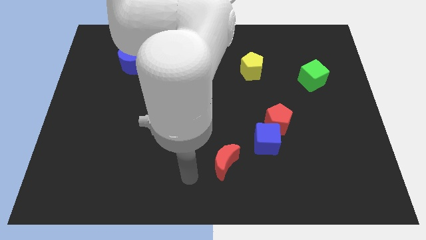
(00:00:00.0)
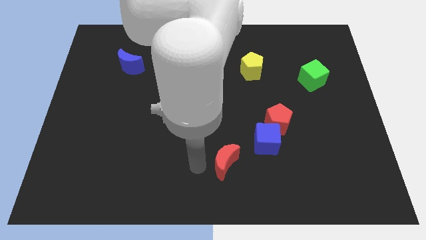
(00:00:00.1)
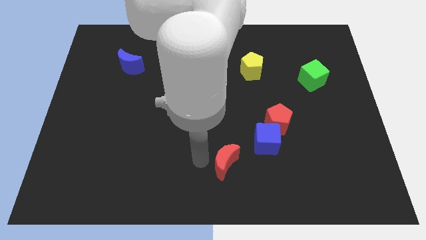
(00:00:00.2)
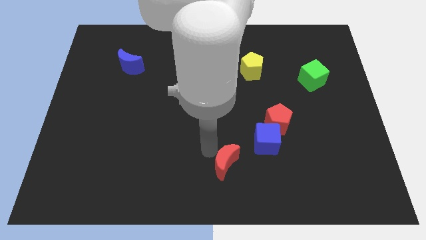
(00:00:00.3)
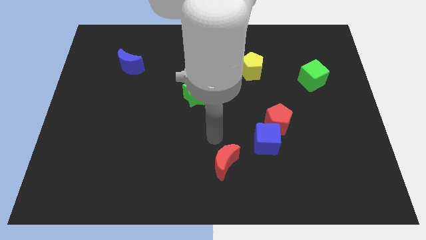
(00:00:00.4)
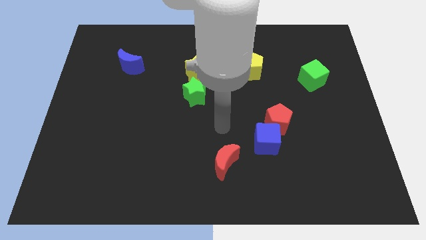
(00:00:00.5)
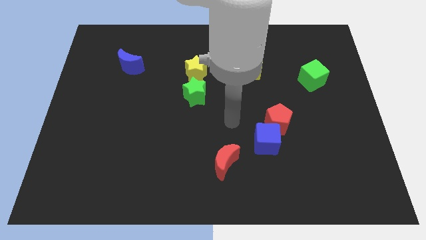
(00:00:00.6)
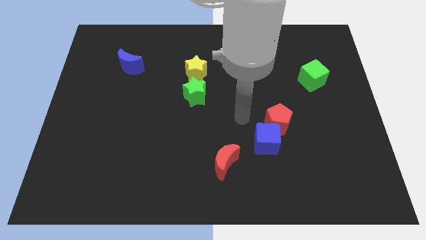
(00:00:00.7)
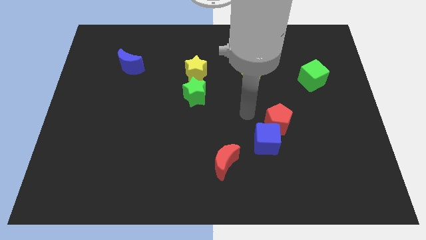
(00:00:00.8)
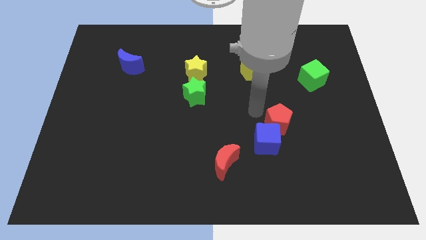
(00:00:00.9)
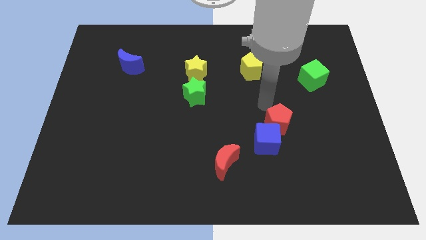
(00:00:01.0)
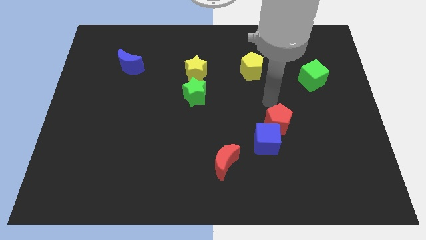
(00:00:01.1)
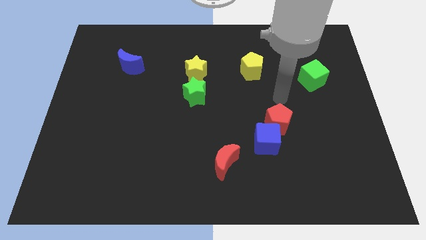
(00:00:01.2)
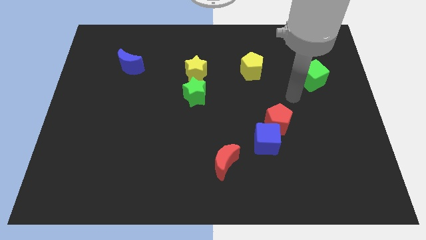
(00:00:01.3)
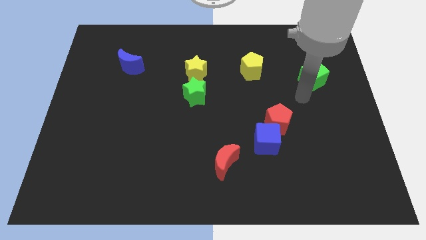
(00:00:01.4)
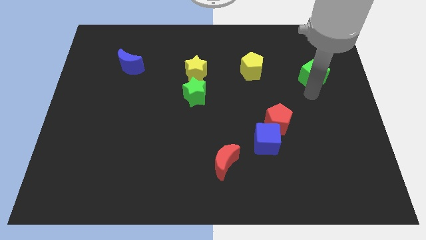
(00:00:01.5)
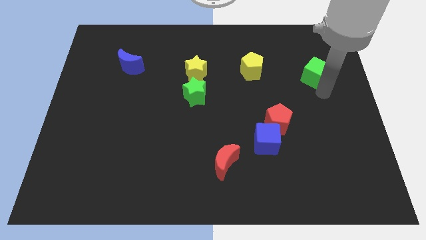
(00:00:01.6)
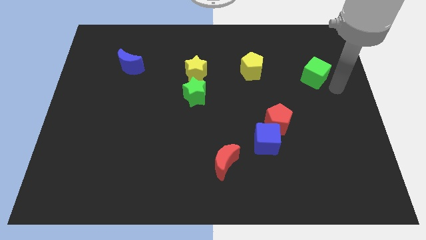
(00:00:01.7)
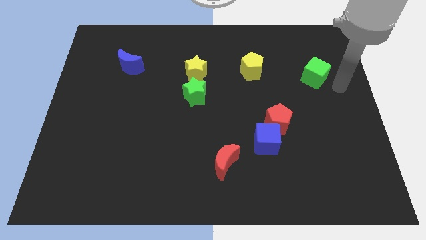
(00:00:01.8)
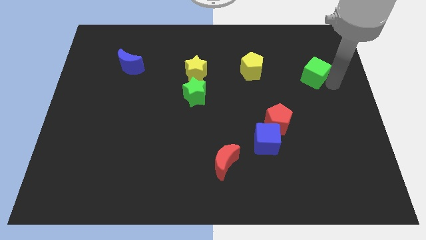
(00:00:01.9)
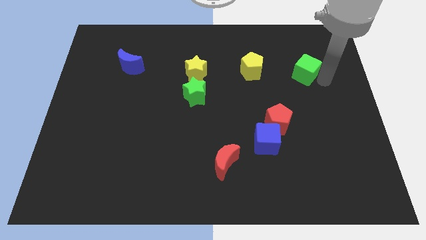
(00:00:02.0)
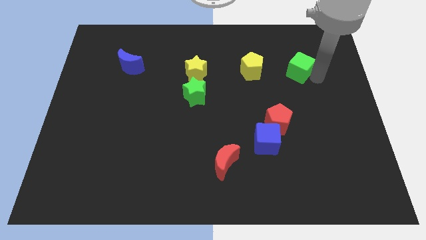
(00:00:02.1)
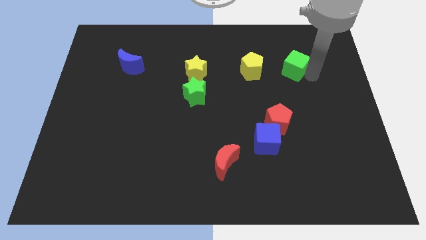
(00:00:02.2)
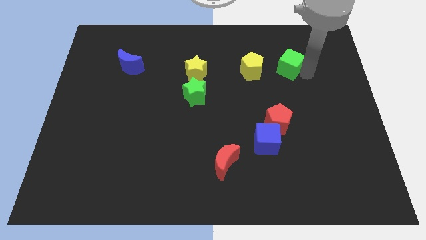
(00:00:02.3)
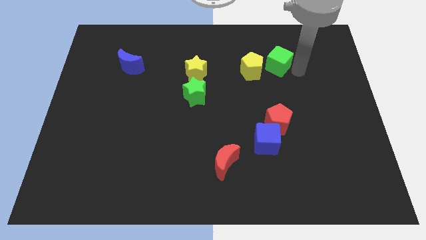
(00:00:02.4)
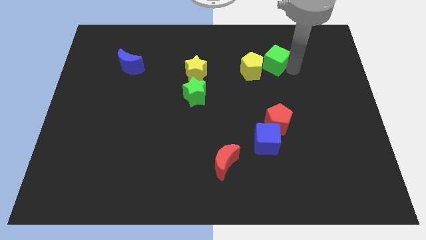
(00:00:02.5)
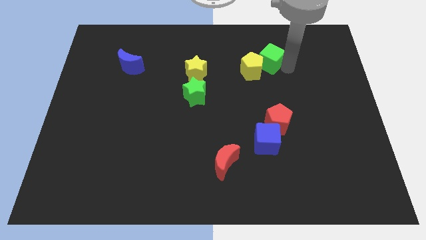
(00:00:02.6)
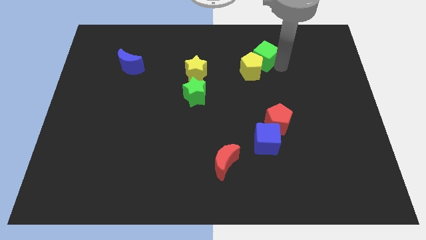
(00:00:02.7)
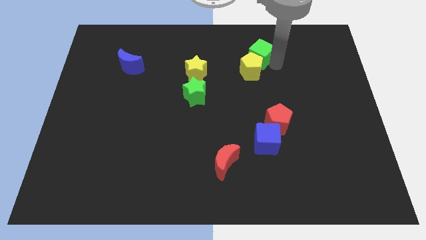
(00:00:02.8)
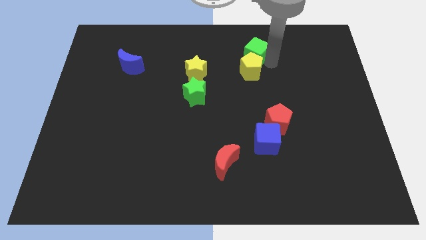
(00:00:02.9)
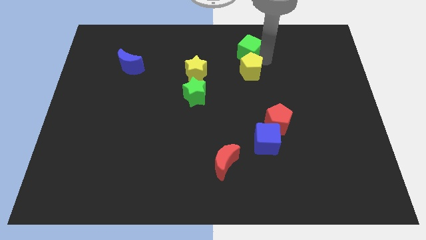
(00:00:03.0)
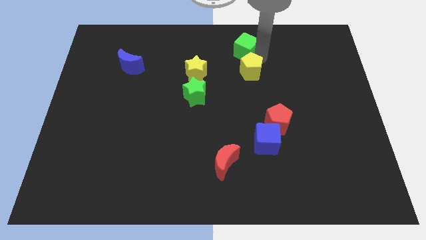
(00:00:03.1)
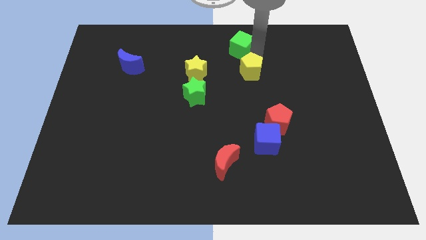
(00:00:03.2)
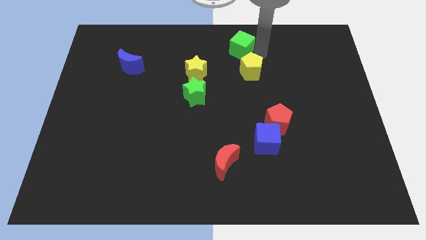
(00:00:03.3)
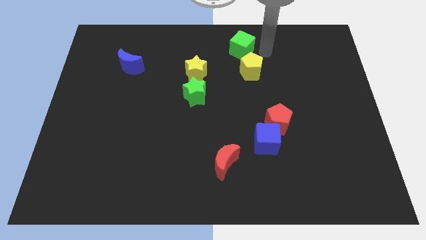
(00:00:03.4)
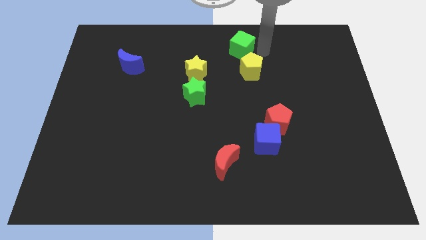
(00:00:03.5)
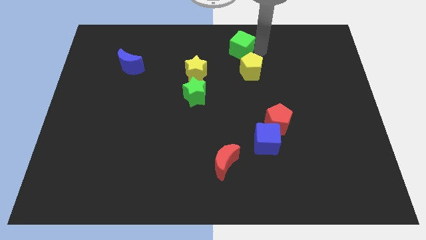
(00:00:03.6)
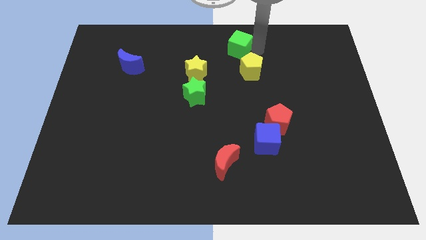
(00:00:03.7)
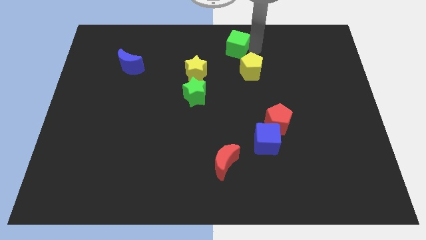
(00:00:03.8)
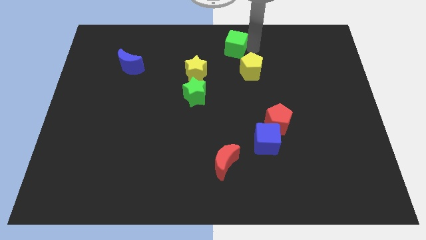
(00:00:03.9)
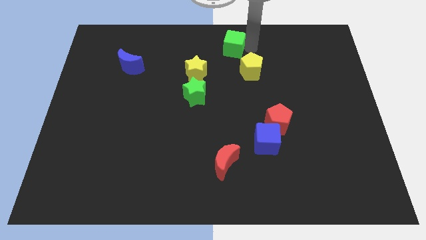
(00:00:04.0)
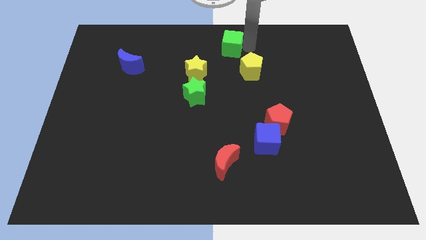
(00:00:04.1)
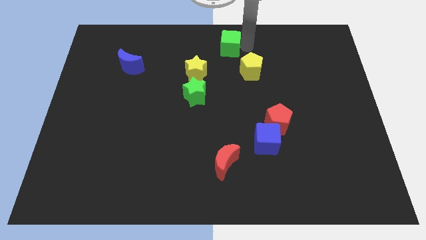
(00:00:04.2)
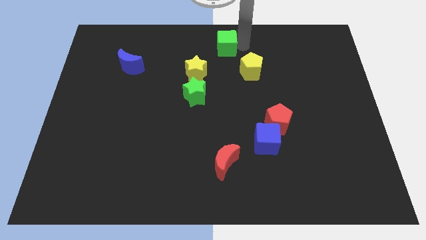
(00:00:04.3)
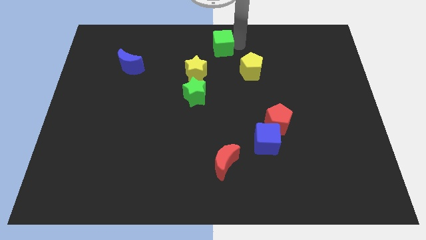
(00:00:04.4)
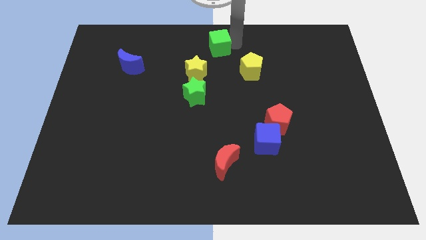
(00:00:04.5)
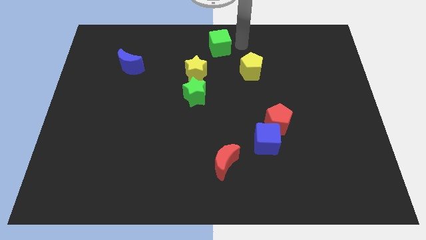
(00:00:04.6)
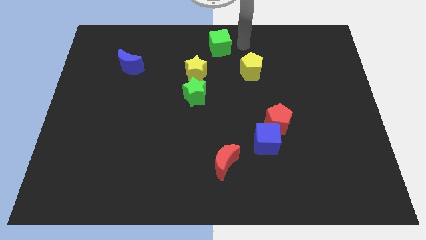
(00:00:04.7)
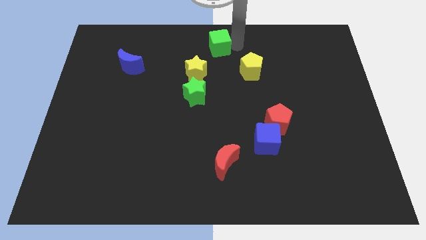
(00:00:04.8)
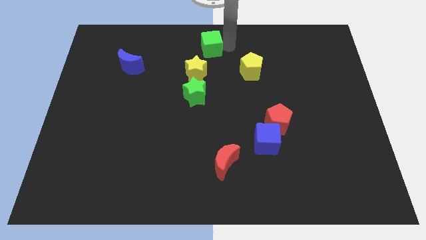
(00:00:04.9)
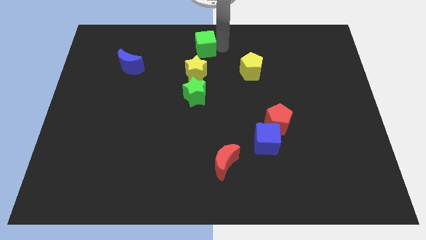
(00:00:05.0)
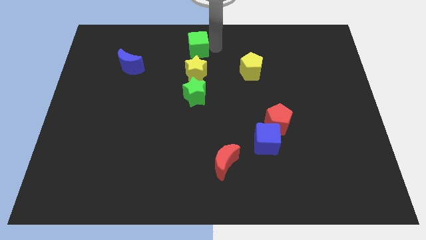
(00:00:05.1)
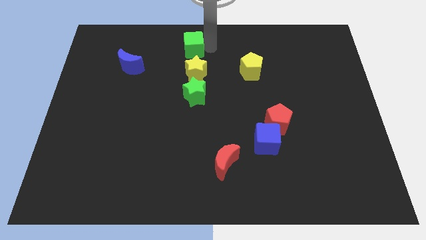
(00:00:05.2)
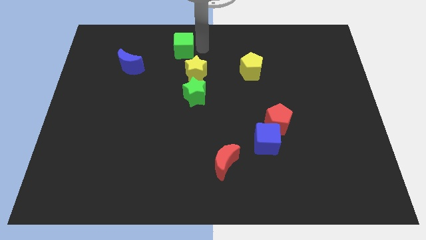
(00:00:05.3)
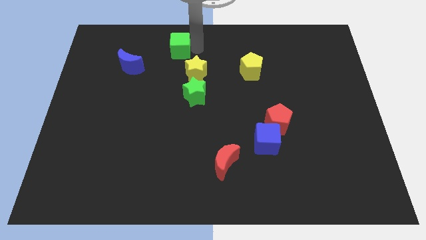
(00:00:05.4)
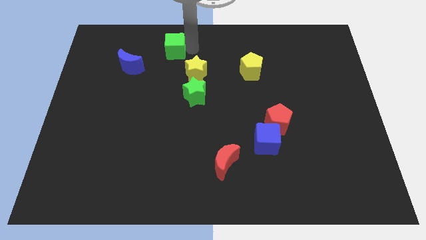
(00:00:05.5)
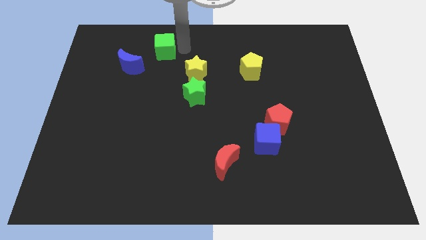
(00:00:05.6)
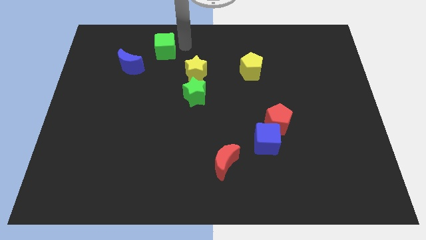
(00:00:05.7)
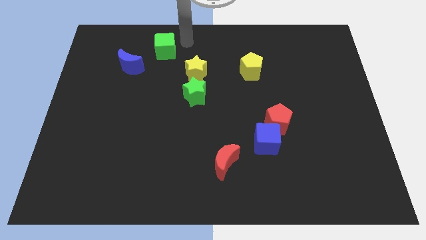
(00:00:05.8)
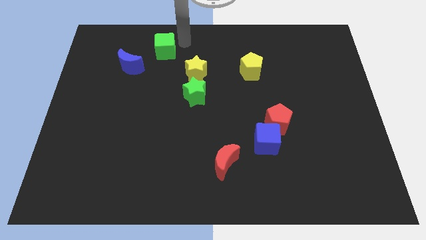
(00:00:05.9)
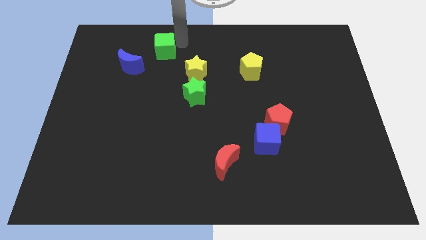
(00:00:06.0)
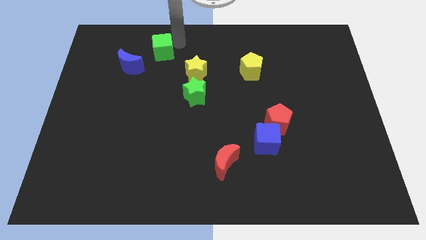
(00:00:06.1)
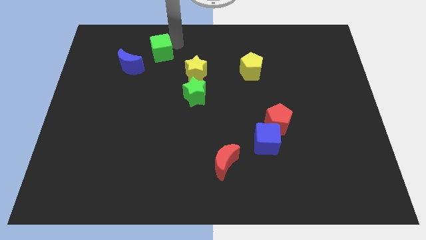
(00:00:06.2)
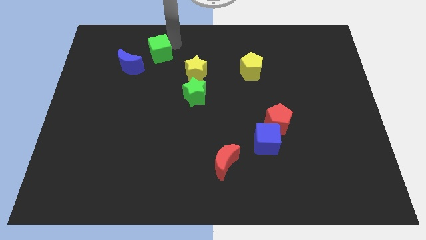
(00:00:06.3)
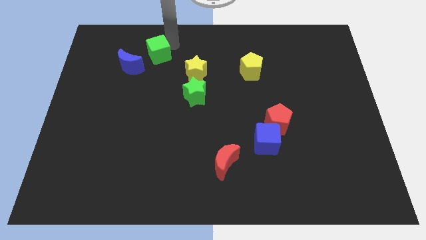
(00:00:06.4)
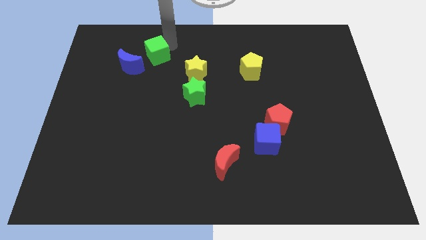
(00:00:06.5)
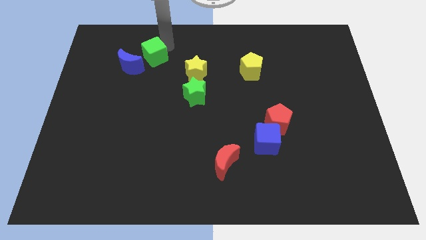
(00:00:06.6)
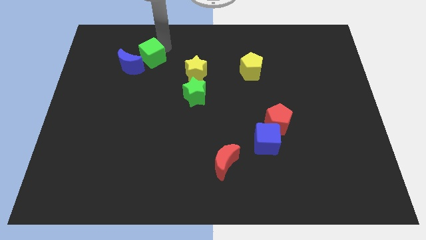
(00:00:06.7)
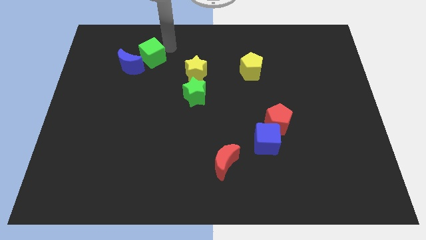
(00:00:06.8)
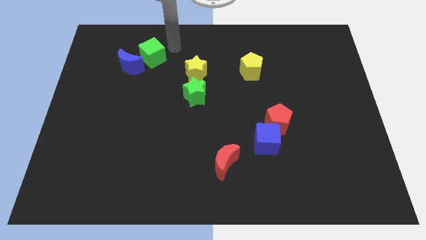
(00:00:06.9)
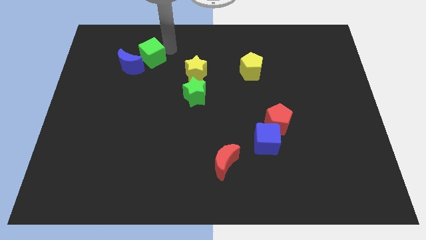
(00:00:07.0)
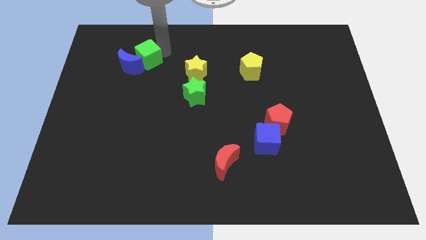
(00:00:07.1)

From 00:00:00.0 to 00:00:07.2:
move the green cube to the blue moon

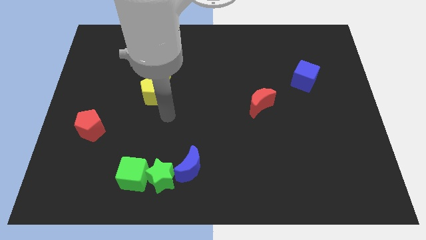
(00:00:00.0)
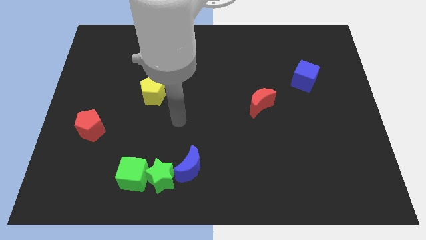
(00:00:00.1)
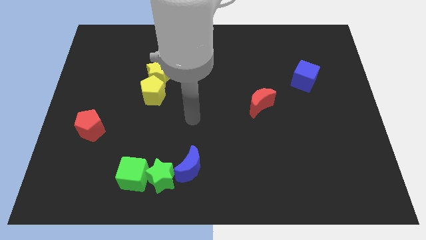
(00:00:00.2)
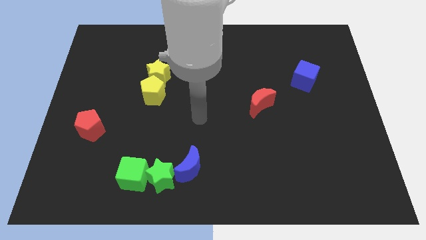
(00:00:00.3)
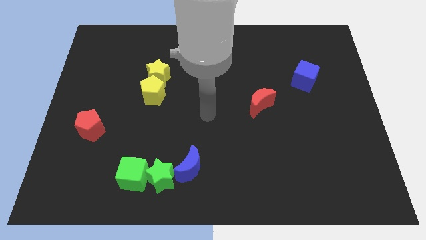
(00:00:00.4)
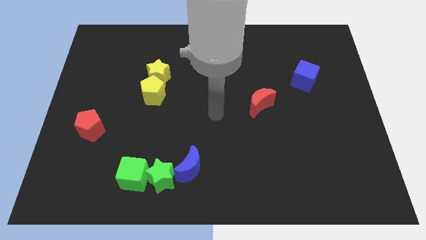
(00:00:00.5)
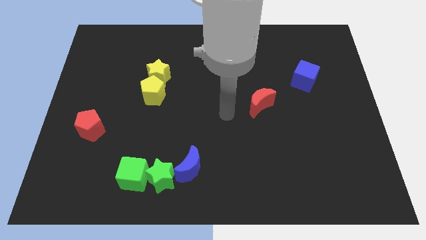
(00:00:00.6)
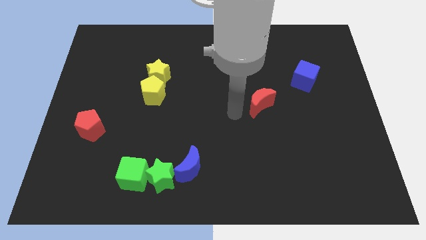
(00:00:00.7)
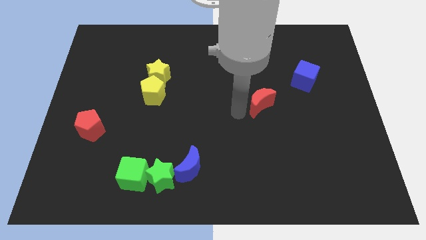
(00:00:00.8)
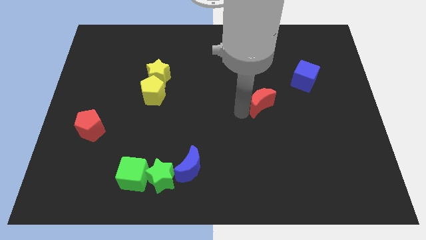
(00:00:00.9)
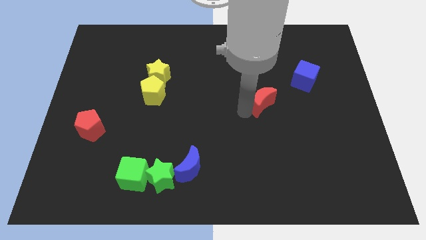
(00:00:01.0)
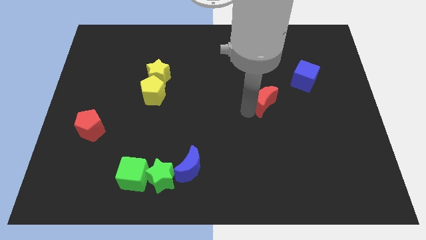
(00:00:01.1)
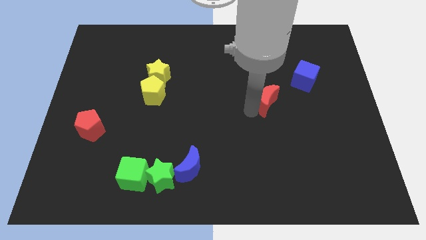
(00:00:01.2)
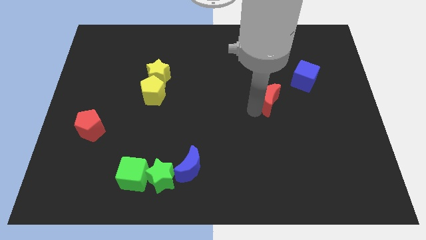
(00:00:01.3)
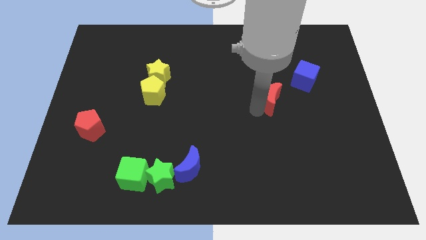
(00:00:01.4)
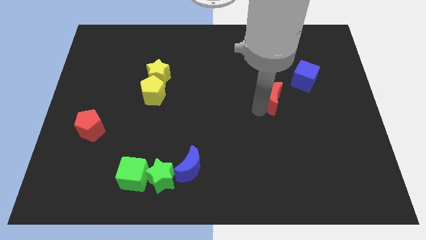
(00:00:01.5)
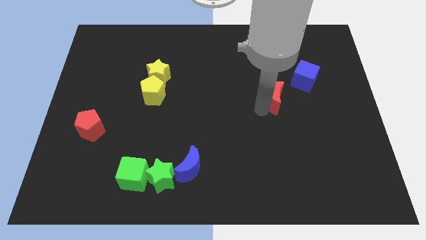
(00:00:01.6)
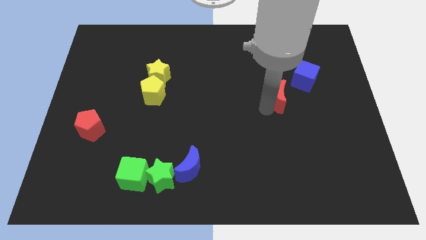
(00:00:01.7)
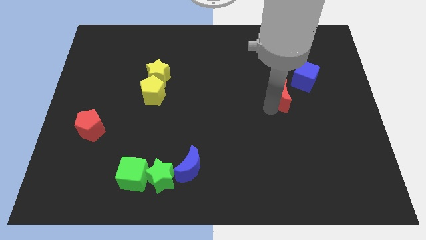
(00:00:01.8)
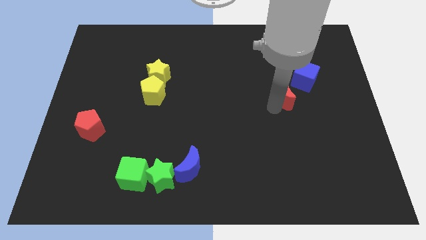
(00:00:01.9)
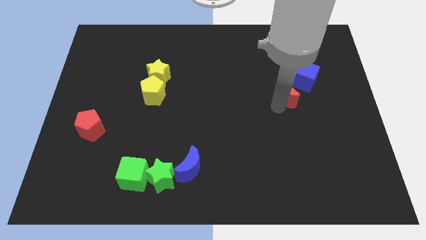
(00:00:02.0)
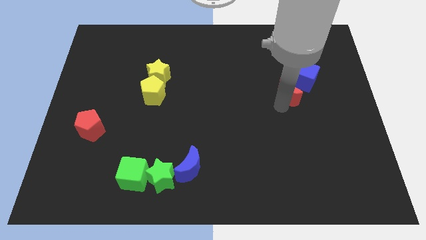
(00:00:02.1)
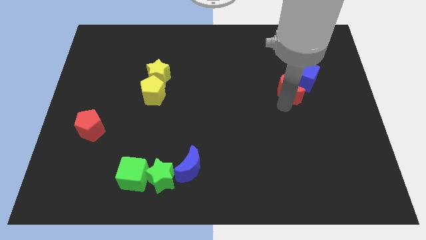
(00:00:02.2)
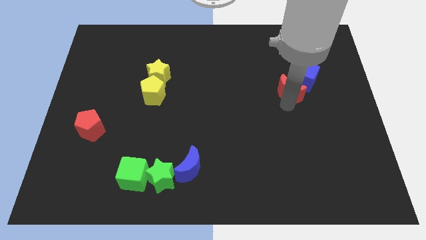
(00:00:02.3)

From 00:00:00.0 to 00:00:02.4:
put the red moon towards the blue cube
